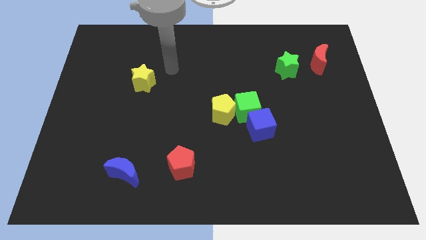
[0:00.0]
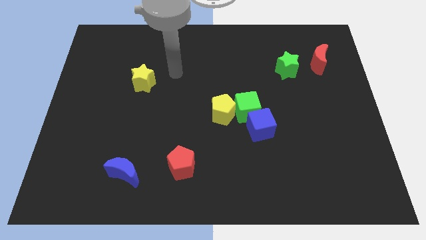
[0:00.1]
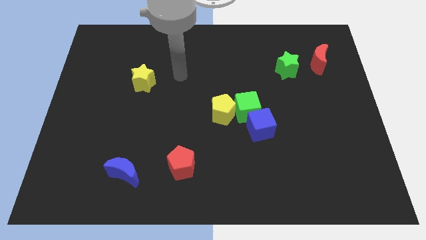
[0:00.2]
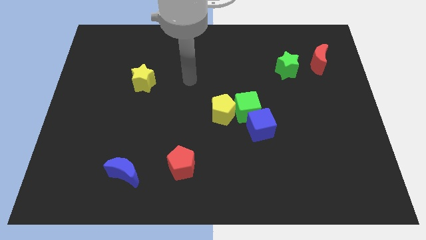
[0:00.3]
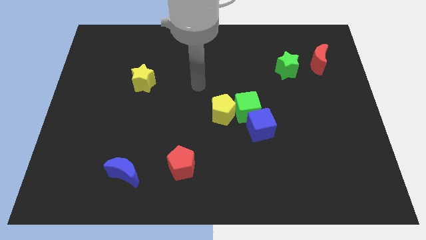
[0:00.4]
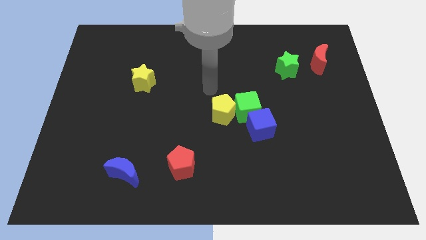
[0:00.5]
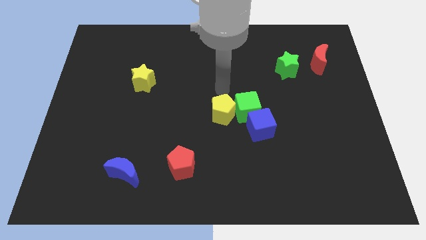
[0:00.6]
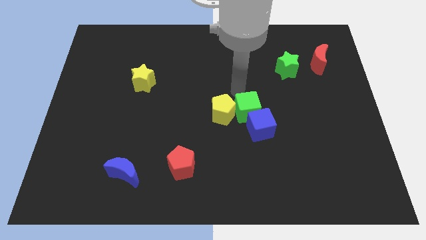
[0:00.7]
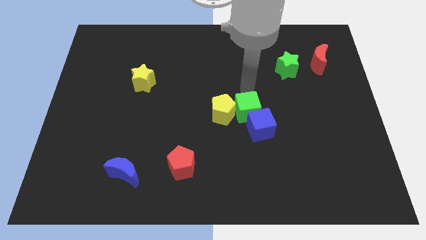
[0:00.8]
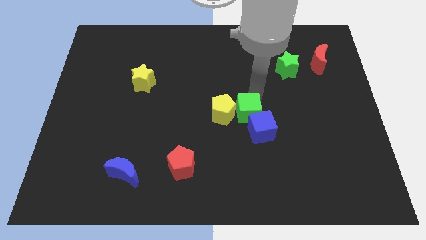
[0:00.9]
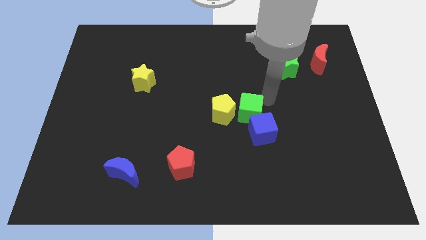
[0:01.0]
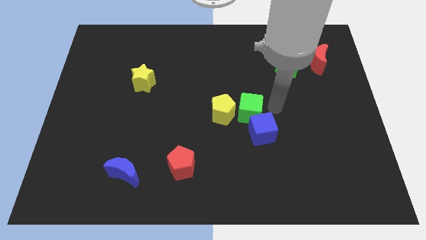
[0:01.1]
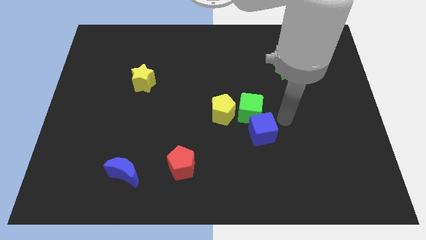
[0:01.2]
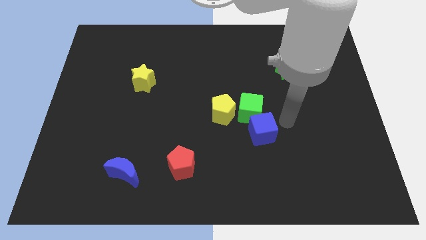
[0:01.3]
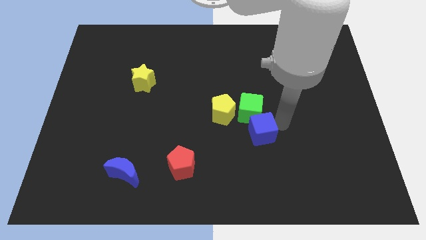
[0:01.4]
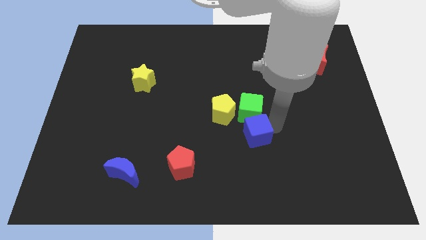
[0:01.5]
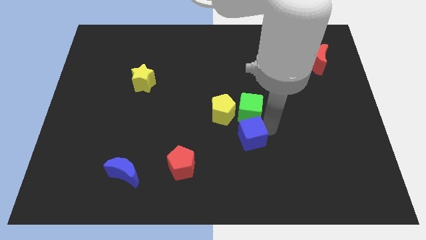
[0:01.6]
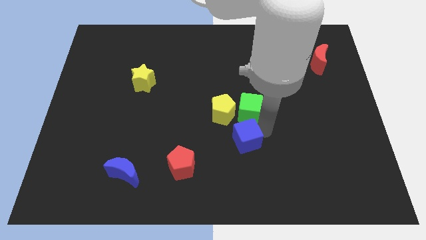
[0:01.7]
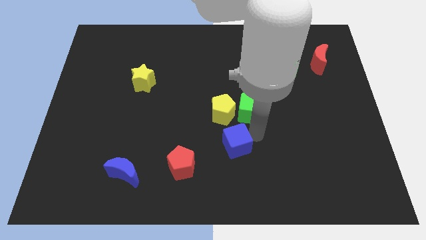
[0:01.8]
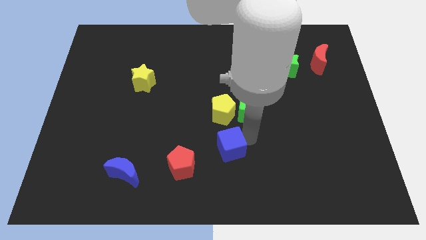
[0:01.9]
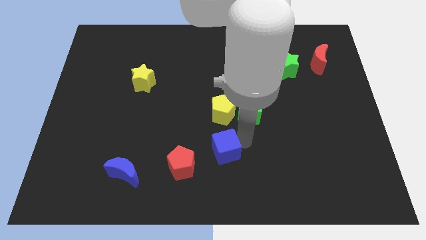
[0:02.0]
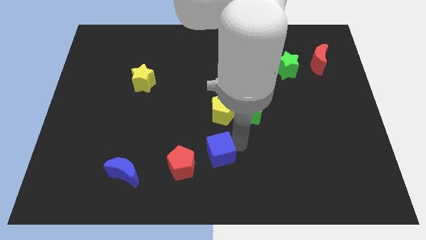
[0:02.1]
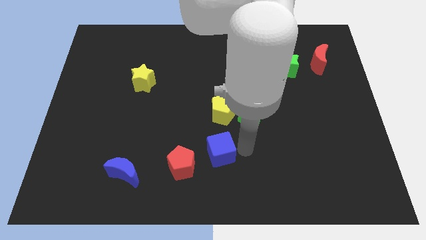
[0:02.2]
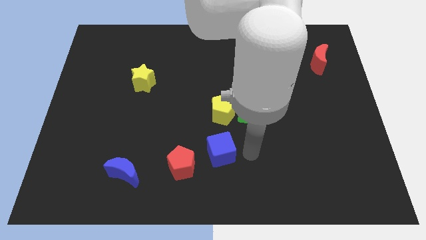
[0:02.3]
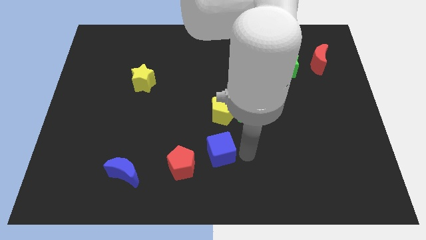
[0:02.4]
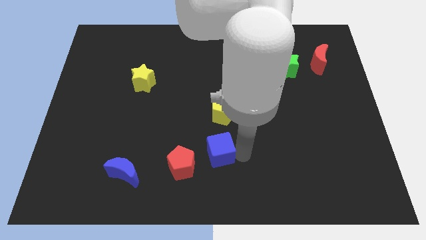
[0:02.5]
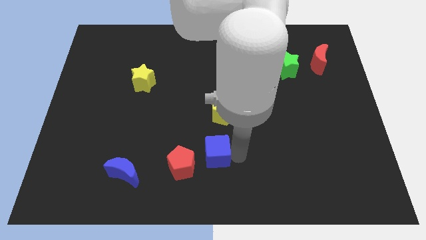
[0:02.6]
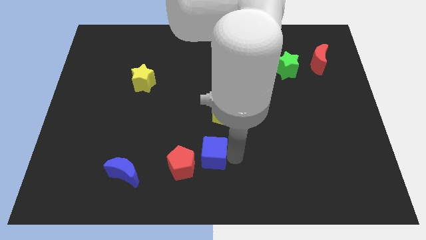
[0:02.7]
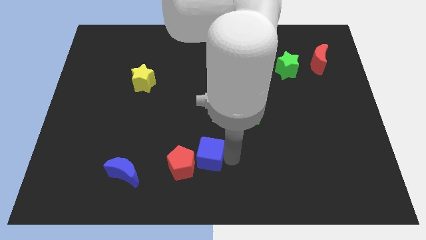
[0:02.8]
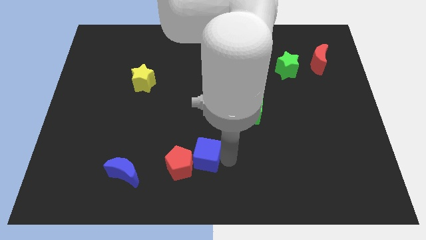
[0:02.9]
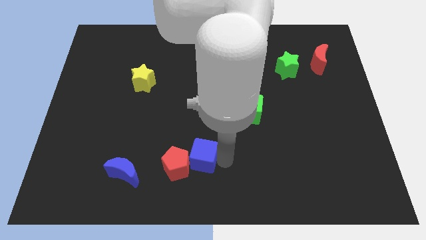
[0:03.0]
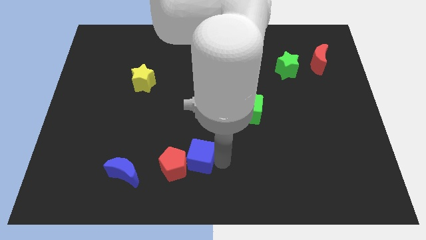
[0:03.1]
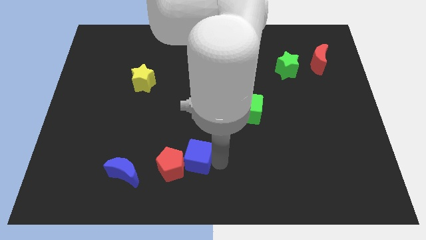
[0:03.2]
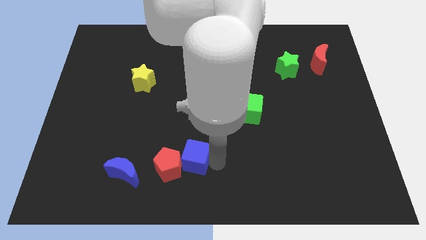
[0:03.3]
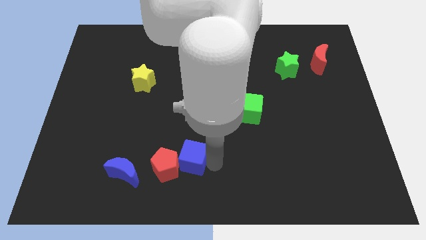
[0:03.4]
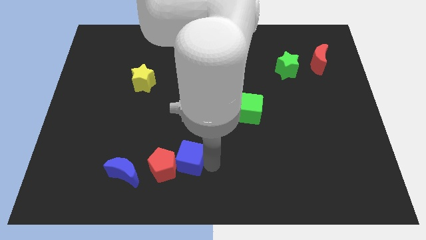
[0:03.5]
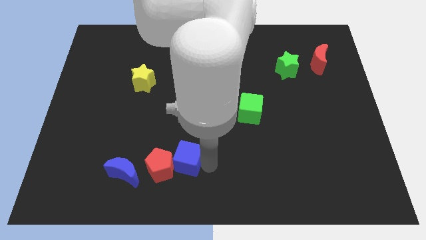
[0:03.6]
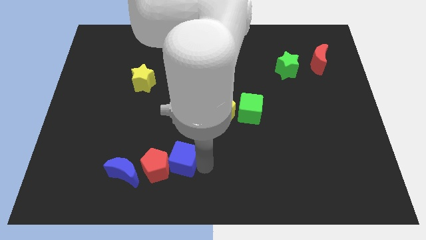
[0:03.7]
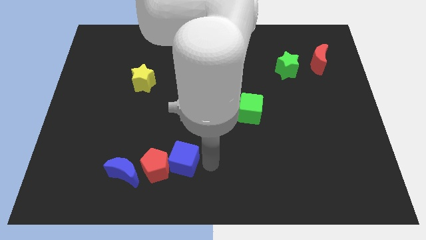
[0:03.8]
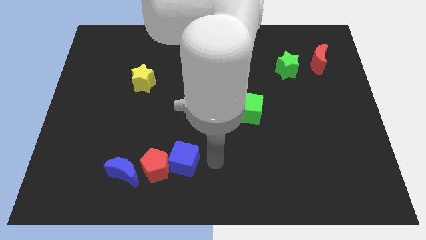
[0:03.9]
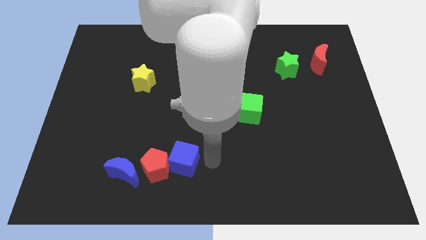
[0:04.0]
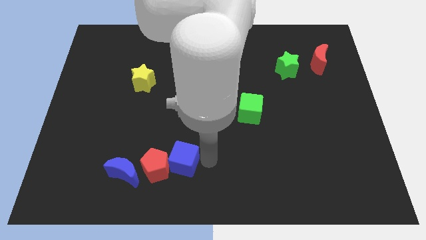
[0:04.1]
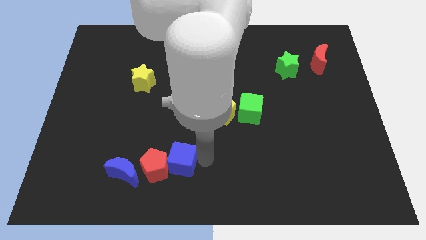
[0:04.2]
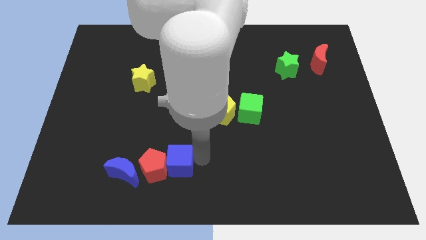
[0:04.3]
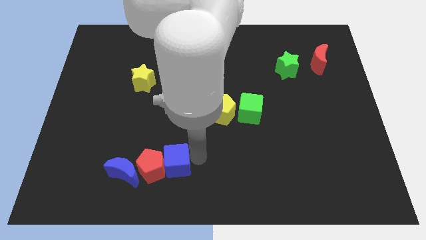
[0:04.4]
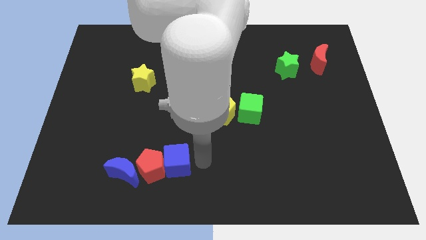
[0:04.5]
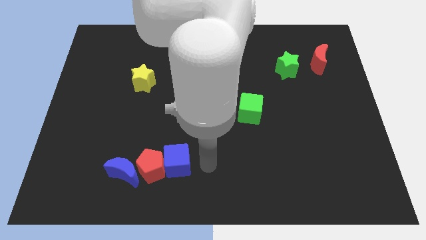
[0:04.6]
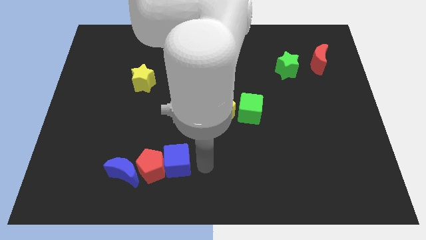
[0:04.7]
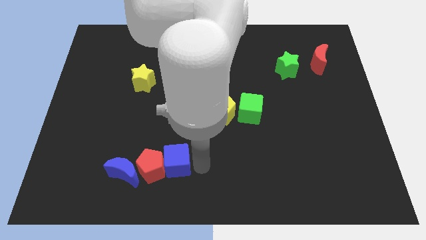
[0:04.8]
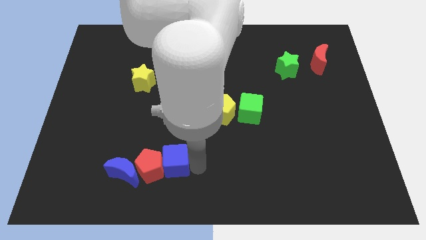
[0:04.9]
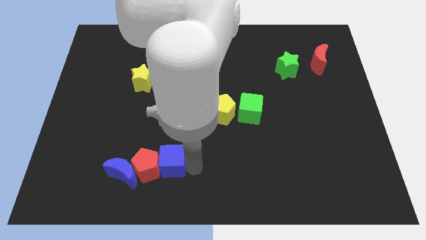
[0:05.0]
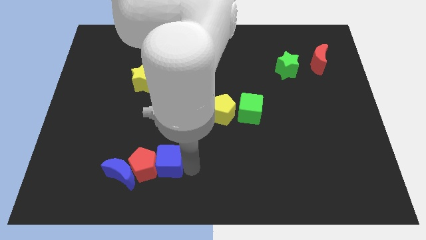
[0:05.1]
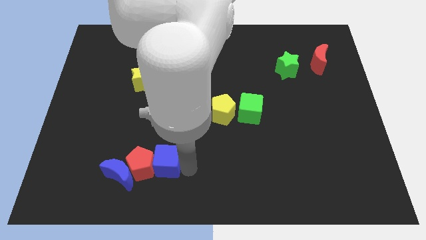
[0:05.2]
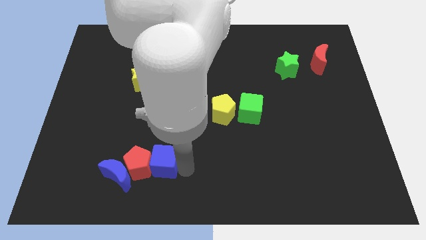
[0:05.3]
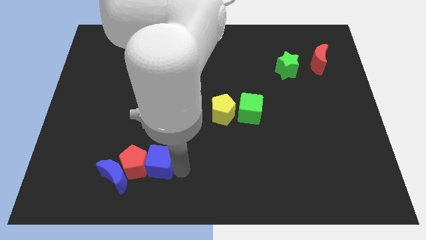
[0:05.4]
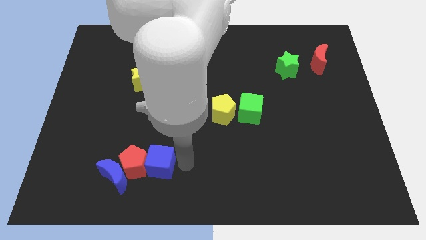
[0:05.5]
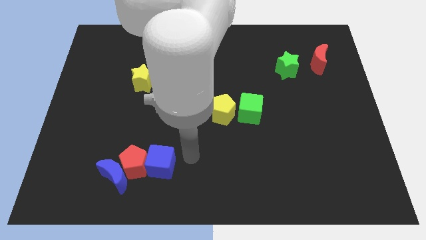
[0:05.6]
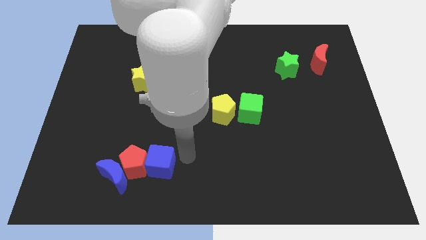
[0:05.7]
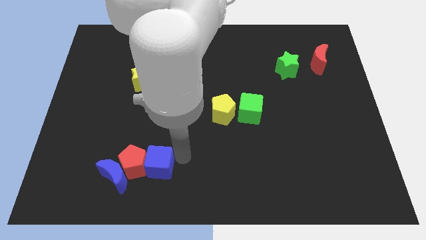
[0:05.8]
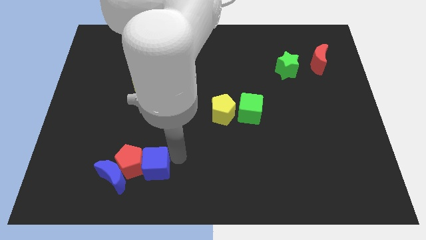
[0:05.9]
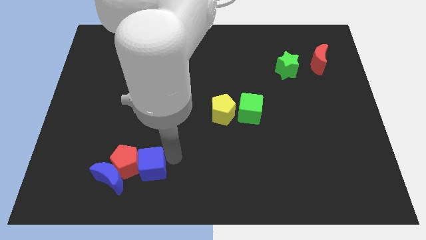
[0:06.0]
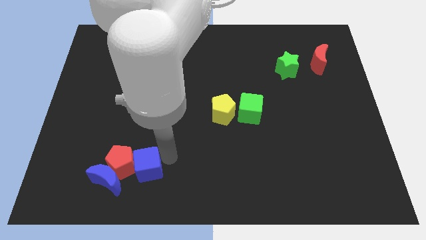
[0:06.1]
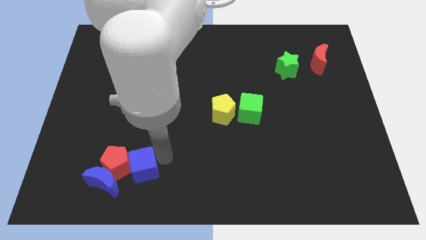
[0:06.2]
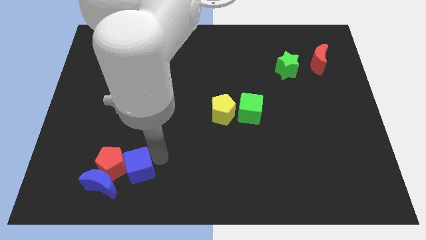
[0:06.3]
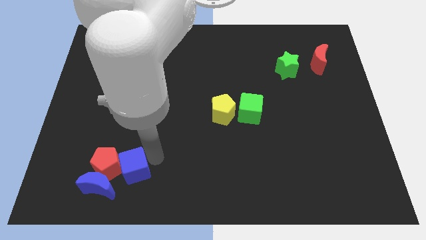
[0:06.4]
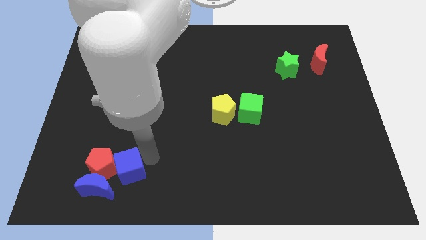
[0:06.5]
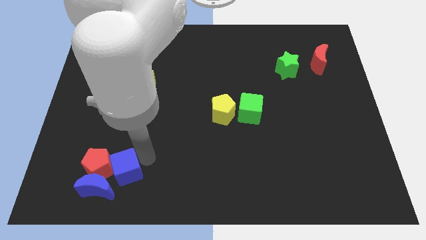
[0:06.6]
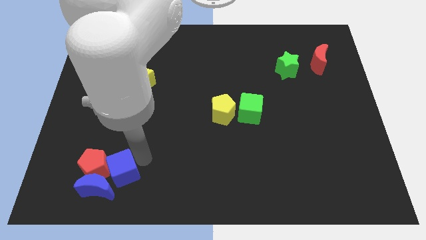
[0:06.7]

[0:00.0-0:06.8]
put the blue cube to the blue moon

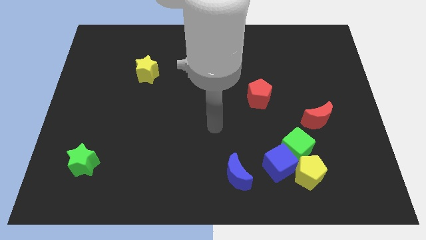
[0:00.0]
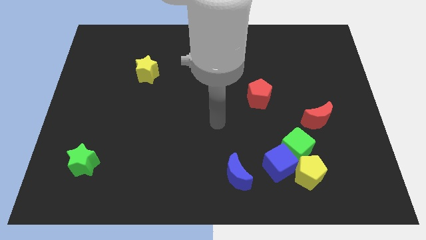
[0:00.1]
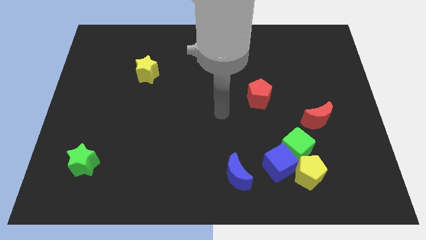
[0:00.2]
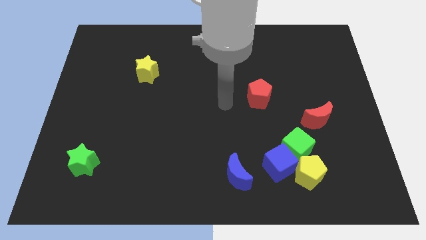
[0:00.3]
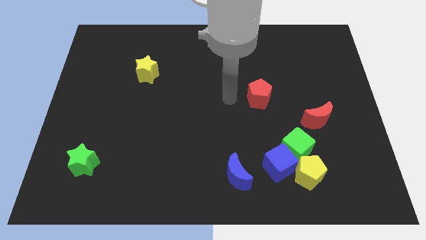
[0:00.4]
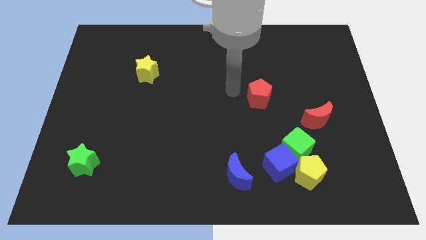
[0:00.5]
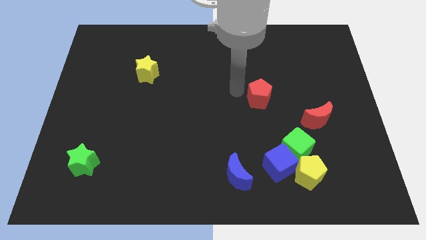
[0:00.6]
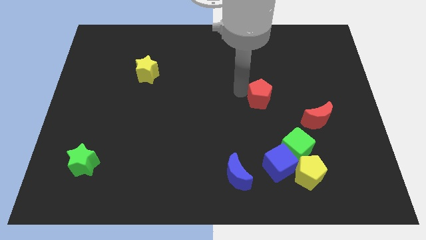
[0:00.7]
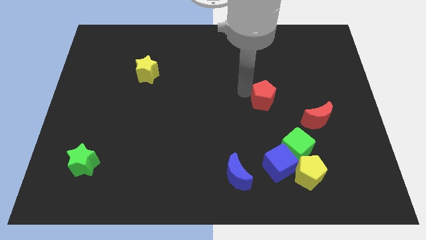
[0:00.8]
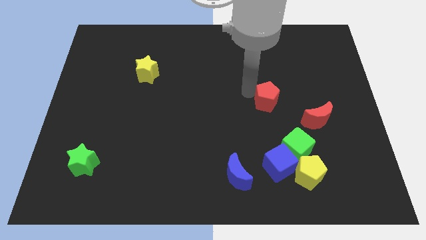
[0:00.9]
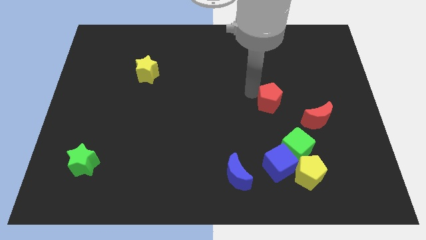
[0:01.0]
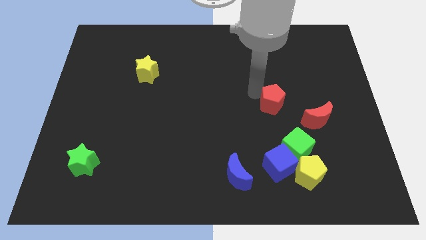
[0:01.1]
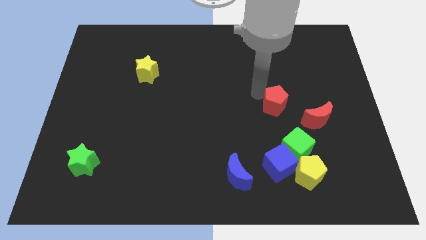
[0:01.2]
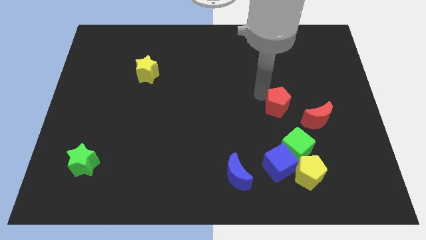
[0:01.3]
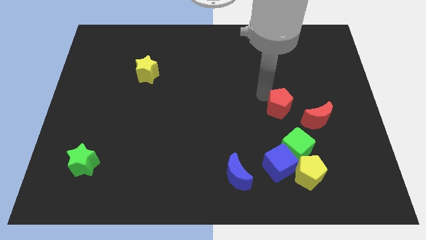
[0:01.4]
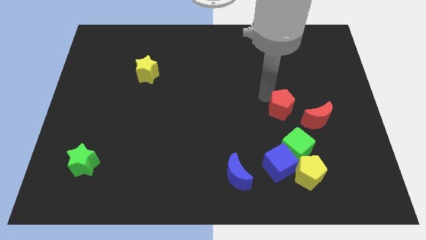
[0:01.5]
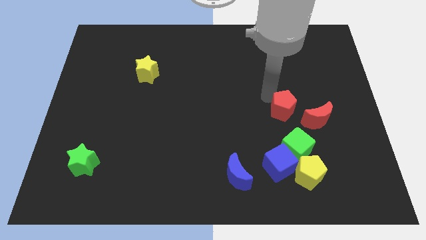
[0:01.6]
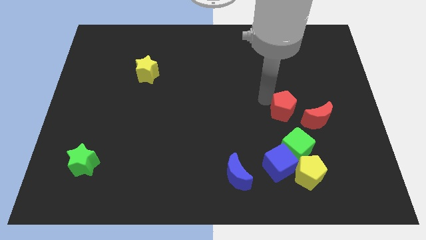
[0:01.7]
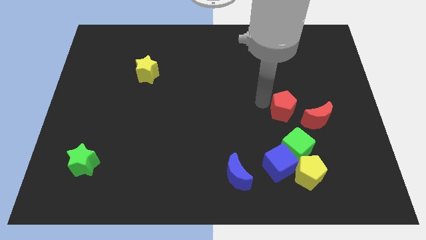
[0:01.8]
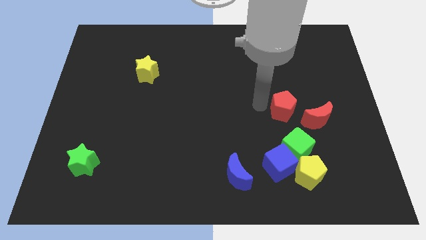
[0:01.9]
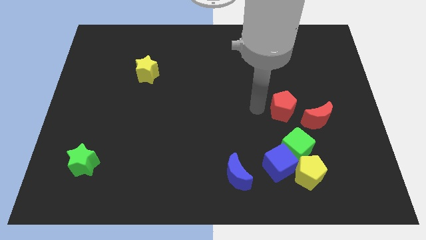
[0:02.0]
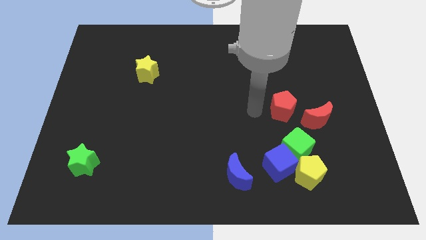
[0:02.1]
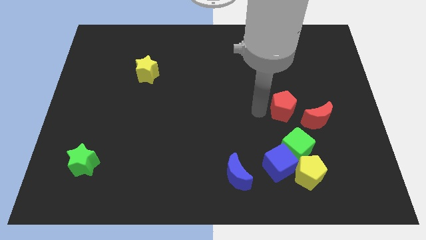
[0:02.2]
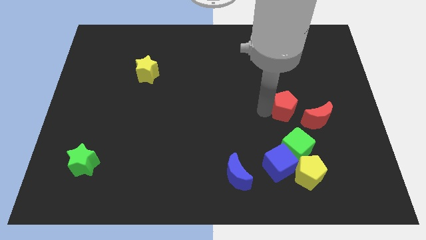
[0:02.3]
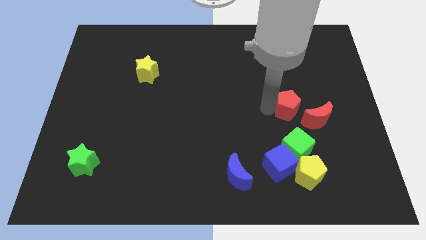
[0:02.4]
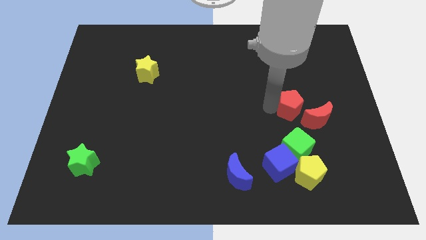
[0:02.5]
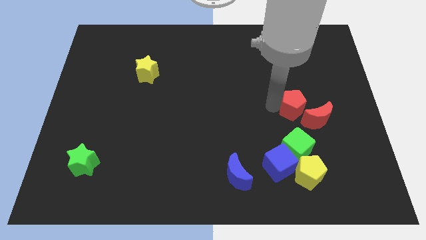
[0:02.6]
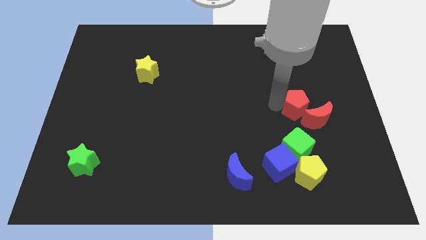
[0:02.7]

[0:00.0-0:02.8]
put the red pentagon towards the red moon
